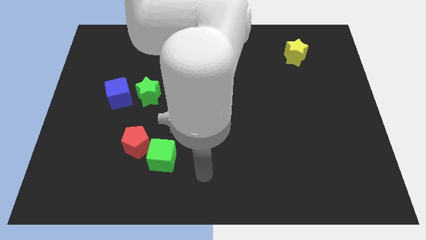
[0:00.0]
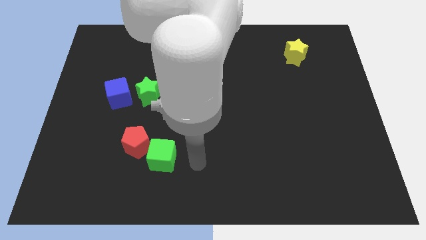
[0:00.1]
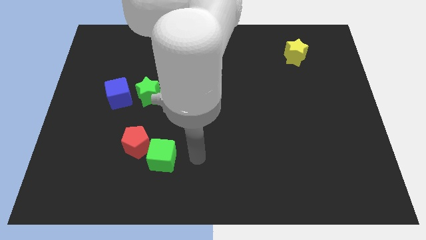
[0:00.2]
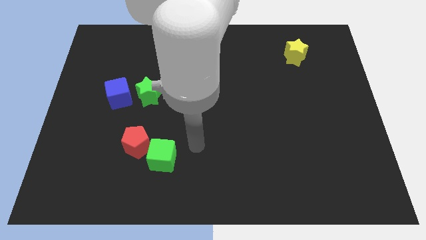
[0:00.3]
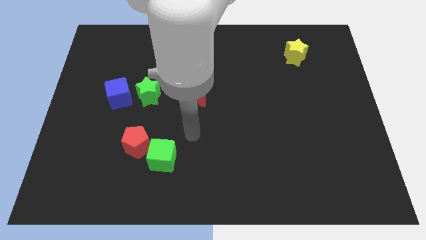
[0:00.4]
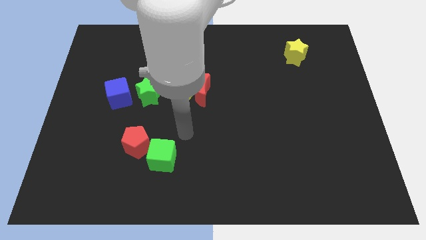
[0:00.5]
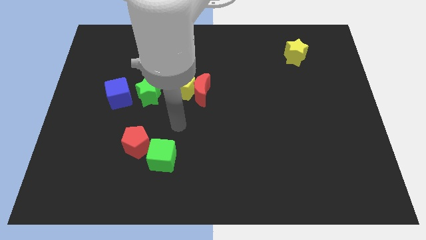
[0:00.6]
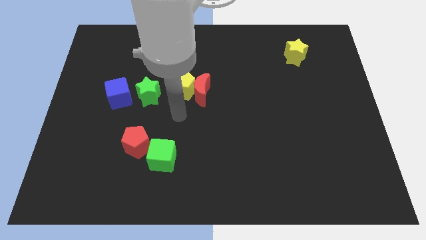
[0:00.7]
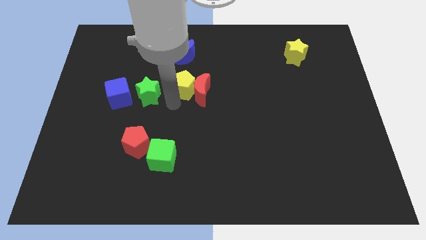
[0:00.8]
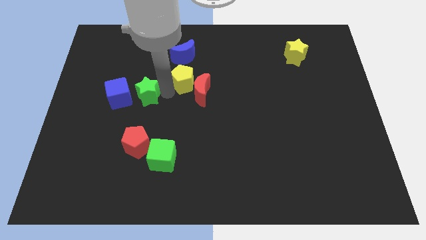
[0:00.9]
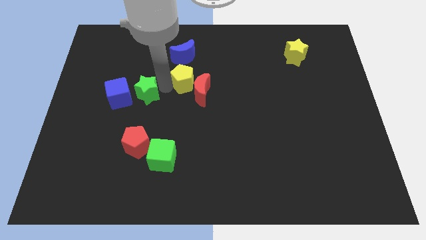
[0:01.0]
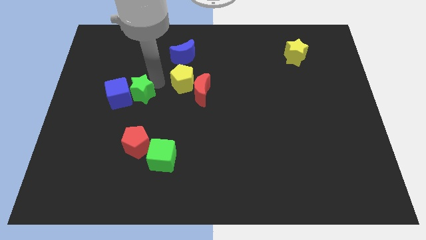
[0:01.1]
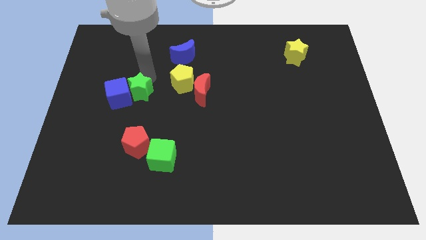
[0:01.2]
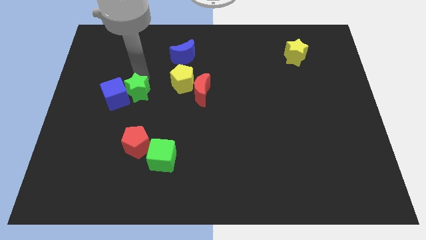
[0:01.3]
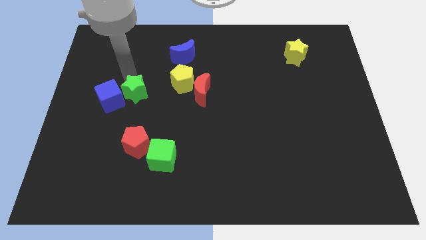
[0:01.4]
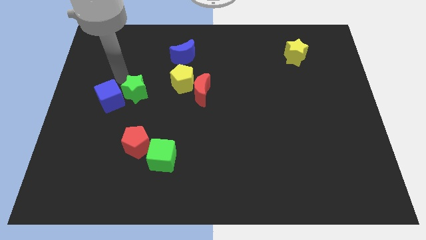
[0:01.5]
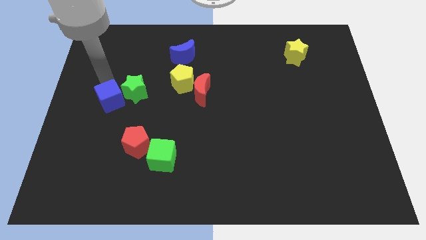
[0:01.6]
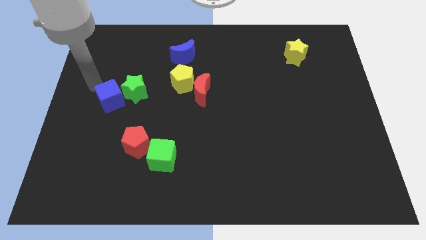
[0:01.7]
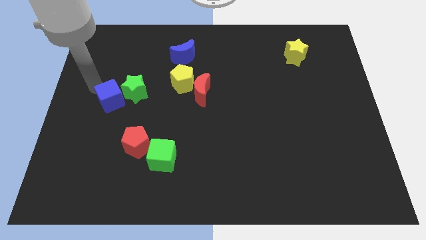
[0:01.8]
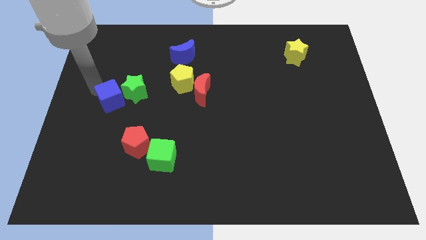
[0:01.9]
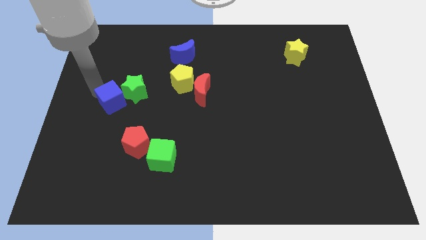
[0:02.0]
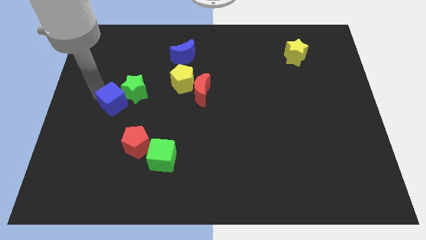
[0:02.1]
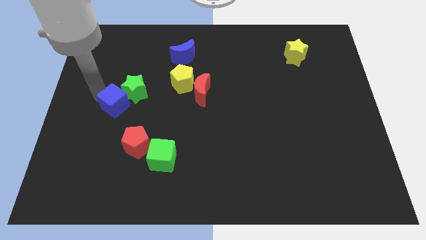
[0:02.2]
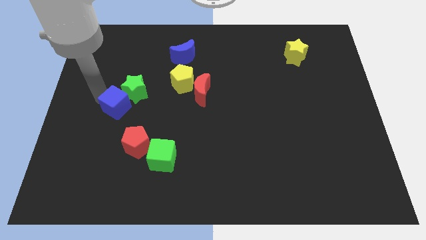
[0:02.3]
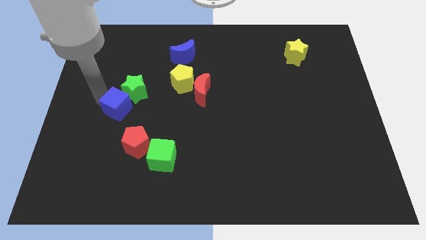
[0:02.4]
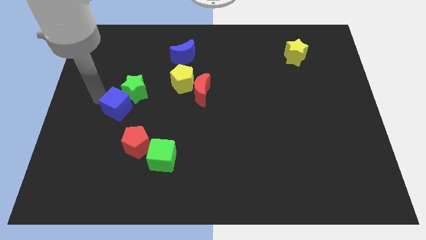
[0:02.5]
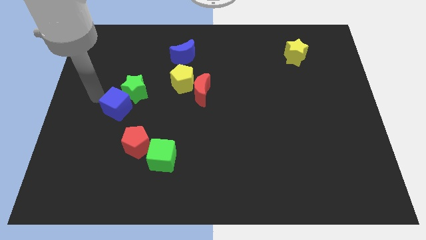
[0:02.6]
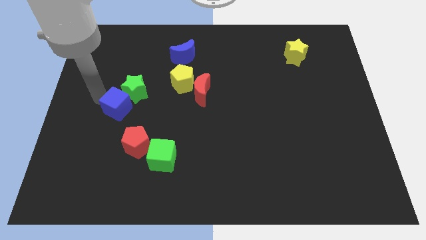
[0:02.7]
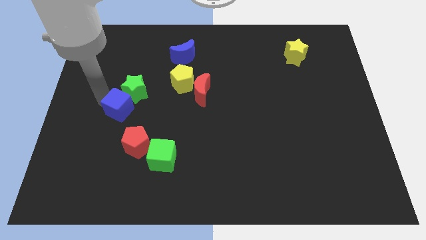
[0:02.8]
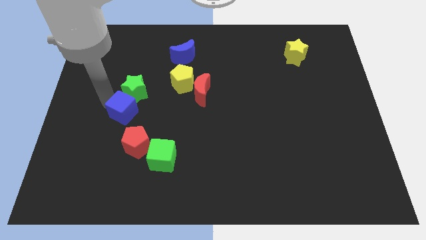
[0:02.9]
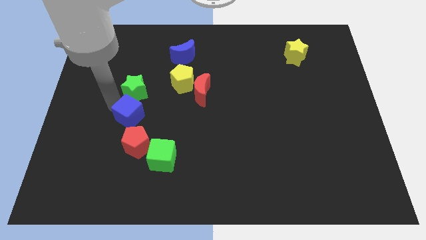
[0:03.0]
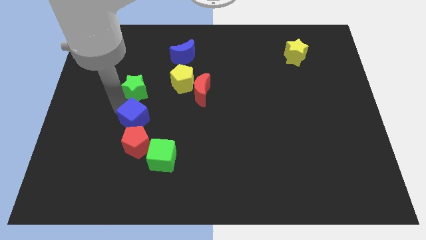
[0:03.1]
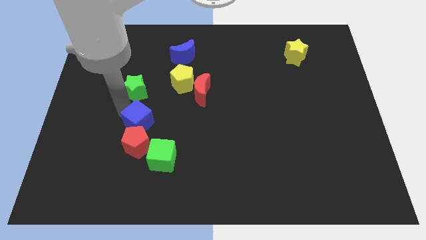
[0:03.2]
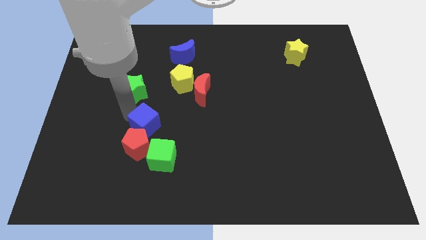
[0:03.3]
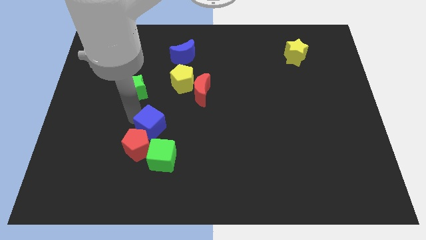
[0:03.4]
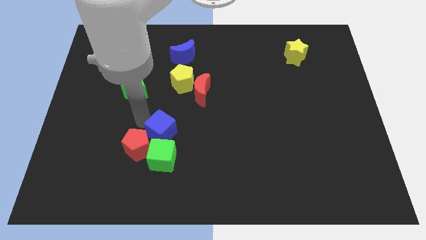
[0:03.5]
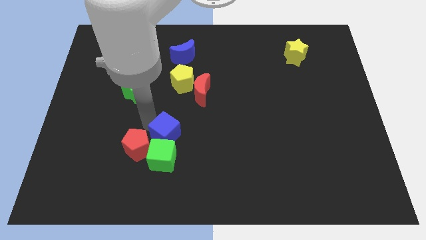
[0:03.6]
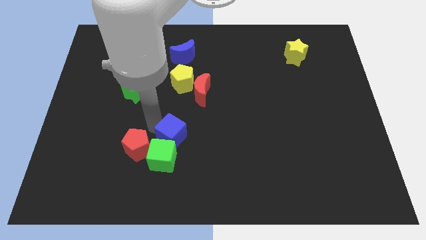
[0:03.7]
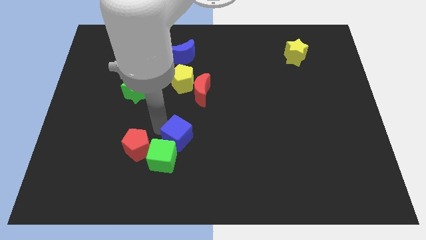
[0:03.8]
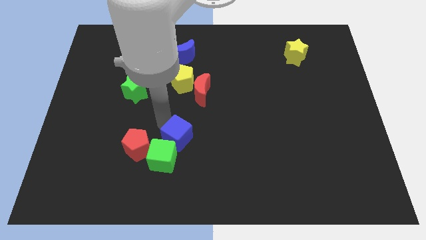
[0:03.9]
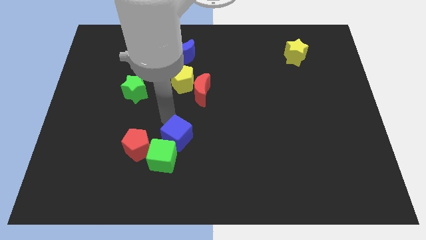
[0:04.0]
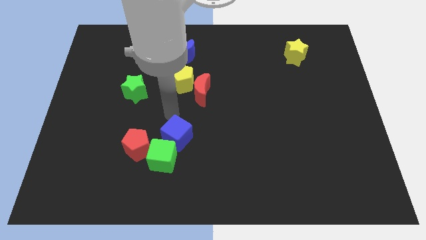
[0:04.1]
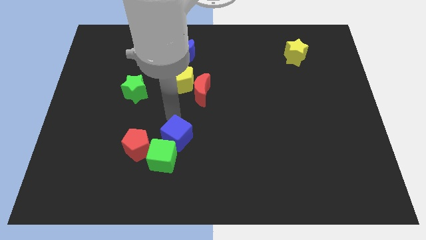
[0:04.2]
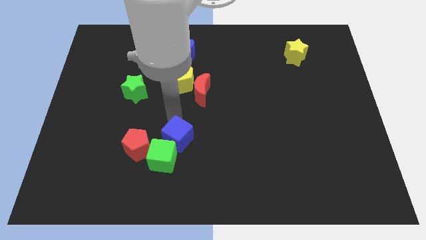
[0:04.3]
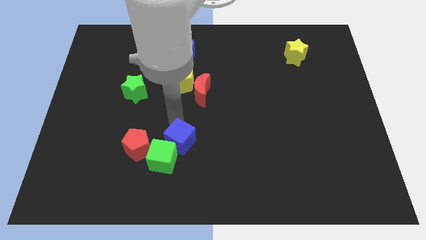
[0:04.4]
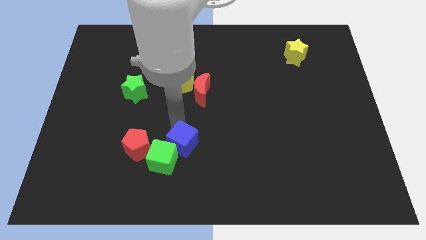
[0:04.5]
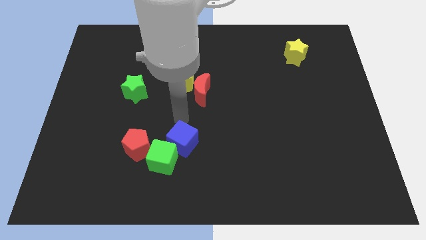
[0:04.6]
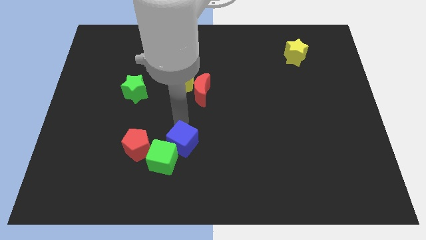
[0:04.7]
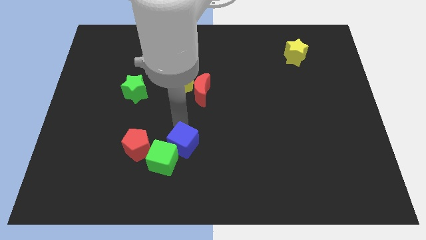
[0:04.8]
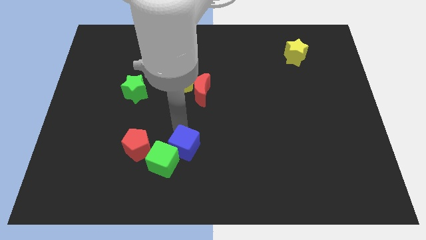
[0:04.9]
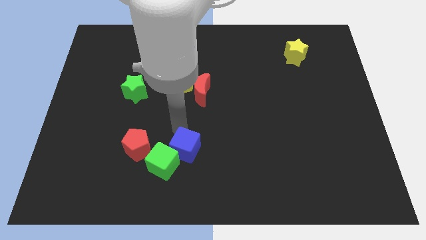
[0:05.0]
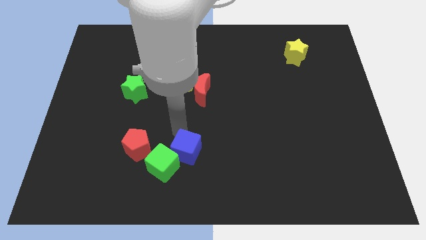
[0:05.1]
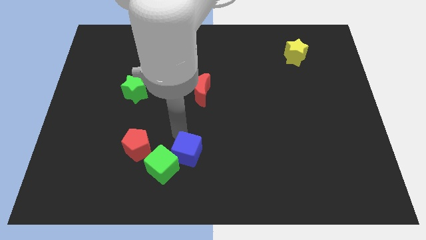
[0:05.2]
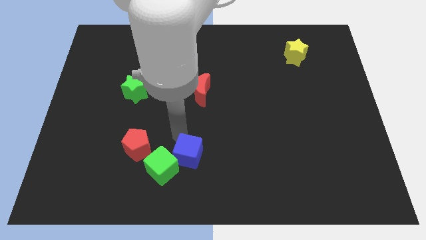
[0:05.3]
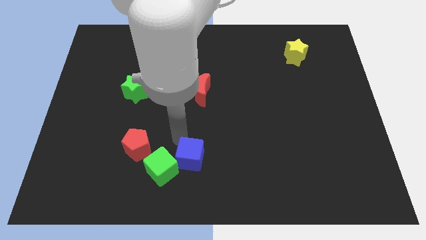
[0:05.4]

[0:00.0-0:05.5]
push the blue cube to the bottom side

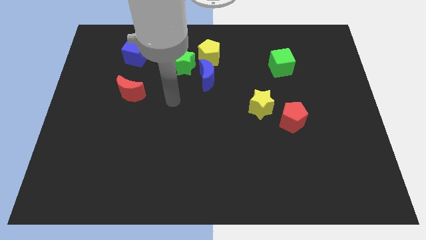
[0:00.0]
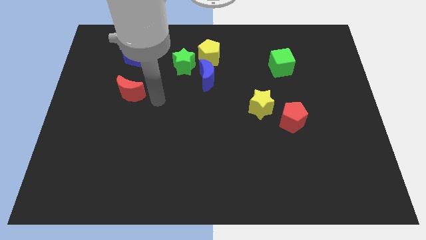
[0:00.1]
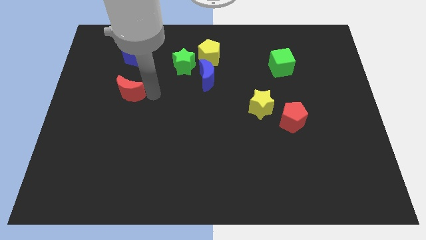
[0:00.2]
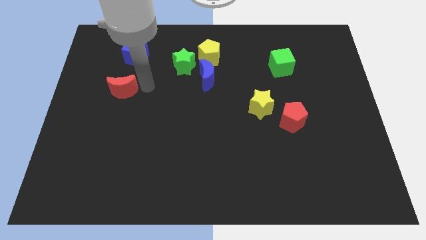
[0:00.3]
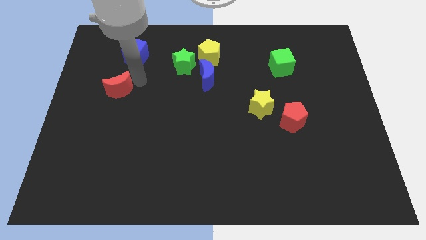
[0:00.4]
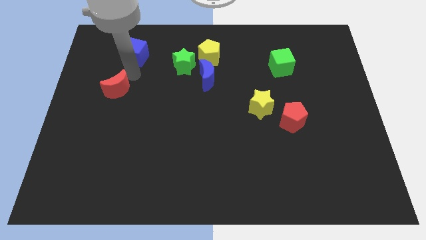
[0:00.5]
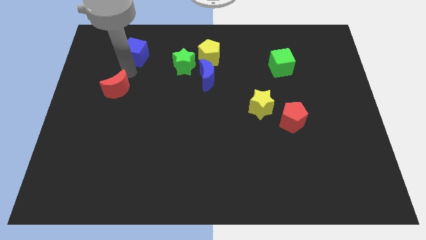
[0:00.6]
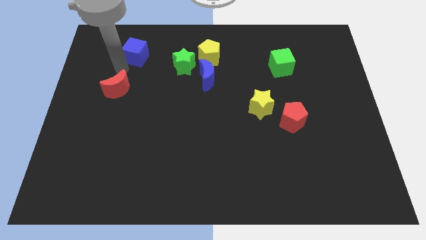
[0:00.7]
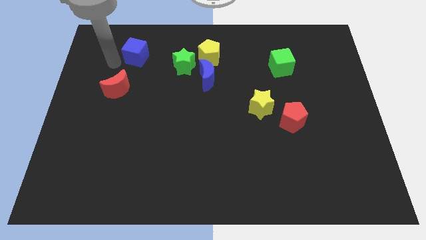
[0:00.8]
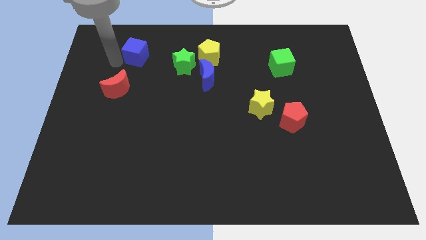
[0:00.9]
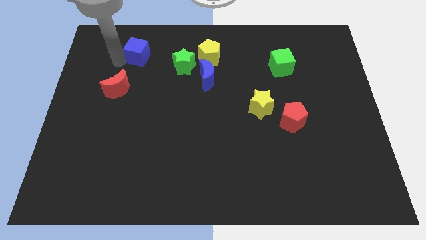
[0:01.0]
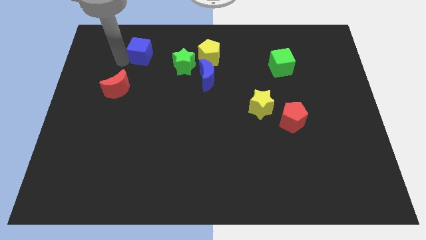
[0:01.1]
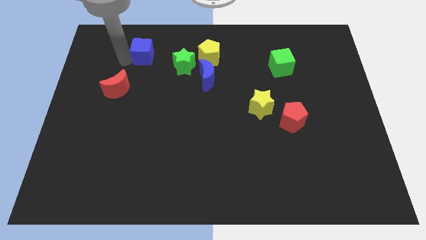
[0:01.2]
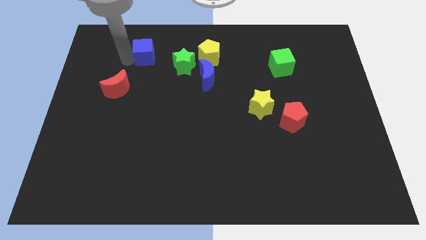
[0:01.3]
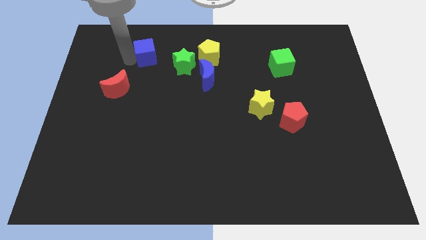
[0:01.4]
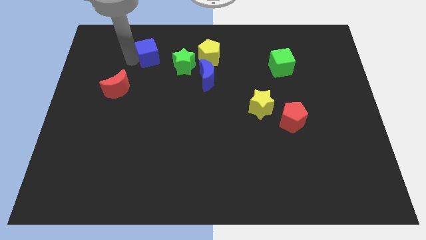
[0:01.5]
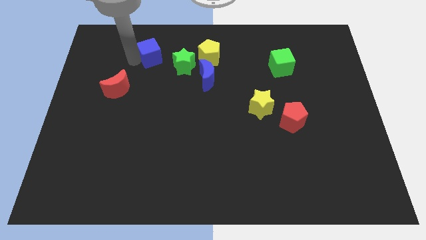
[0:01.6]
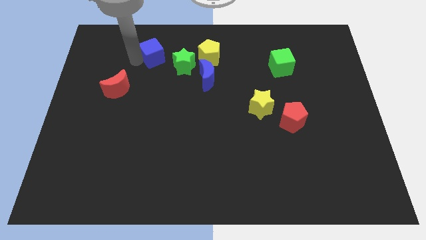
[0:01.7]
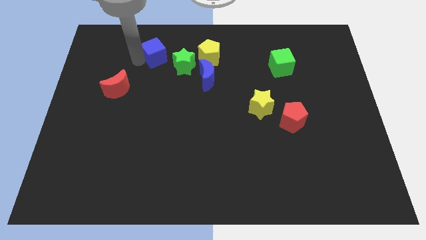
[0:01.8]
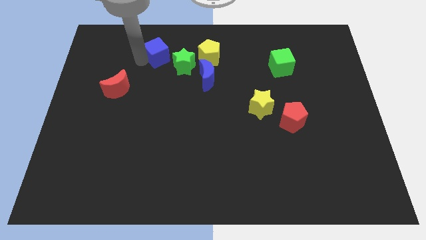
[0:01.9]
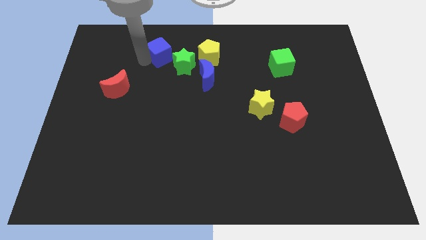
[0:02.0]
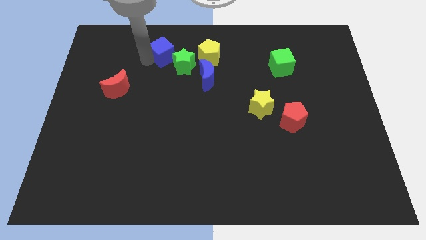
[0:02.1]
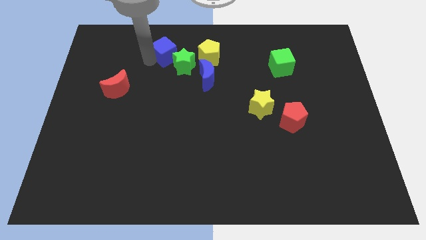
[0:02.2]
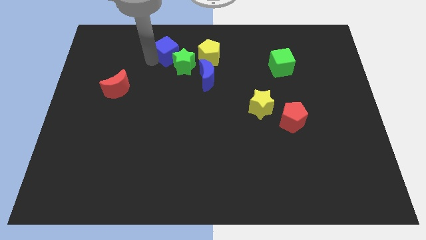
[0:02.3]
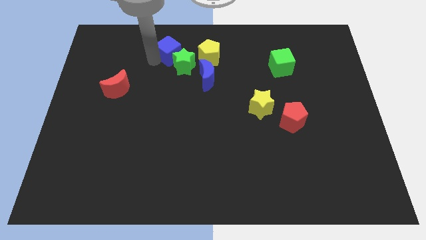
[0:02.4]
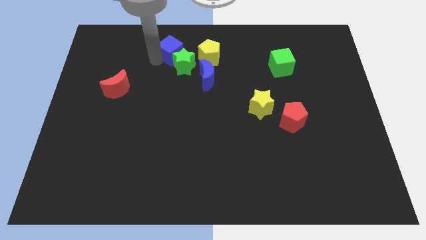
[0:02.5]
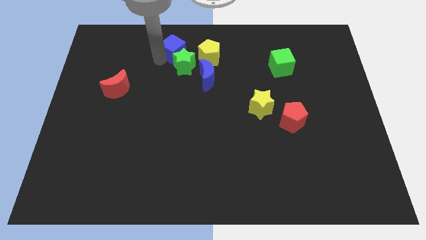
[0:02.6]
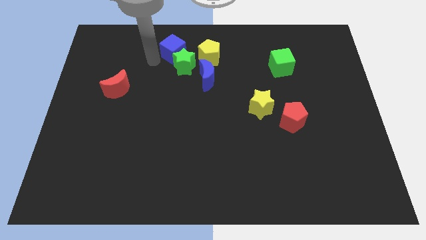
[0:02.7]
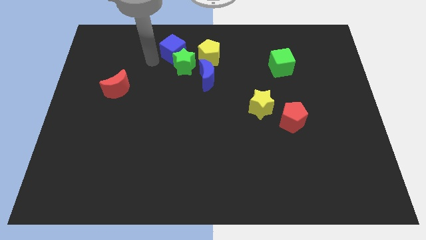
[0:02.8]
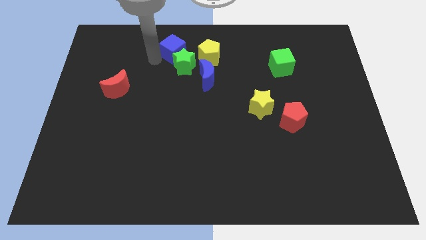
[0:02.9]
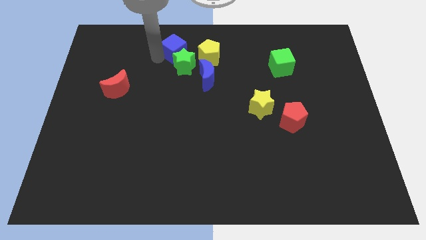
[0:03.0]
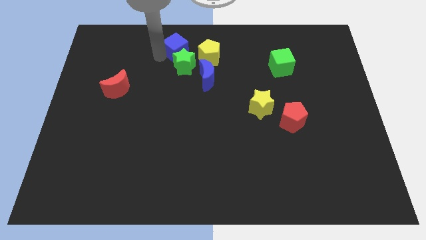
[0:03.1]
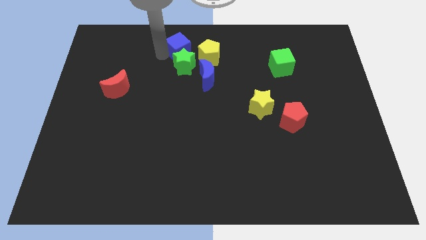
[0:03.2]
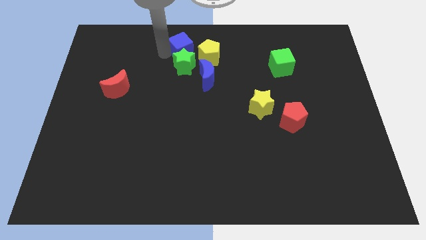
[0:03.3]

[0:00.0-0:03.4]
slide the blue cube to the top
